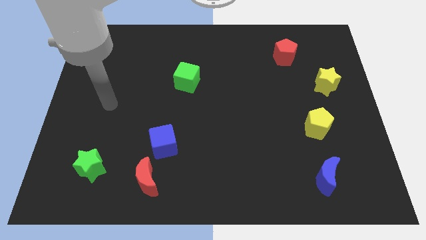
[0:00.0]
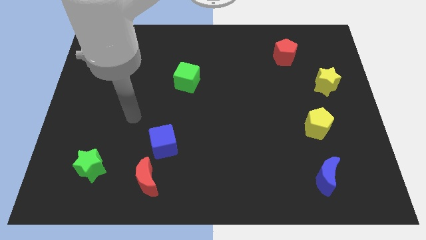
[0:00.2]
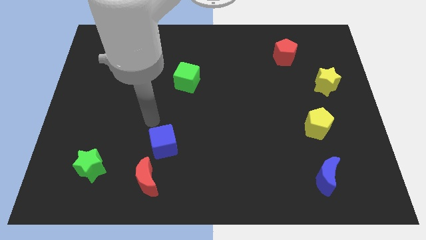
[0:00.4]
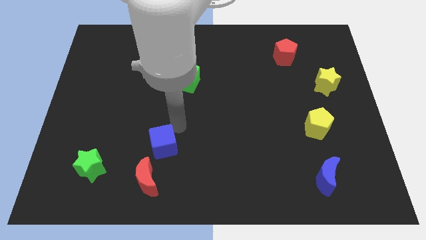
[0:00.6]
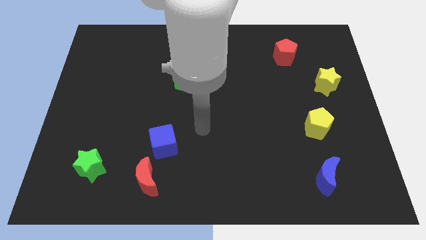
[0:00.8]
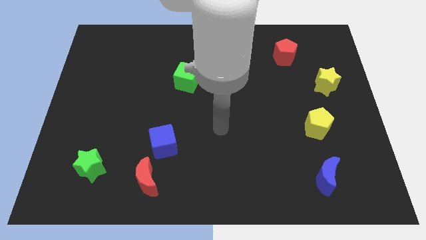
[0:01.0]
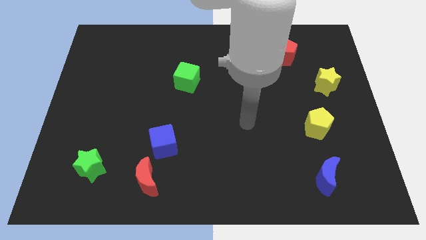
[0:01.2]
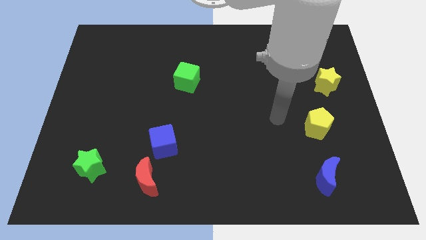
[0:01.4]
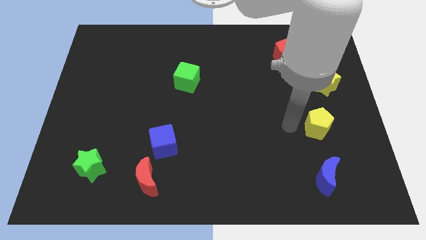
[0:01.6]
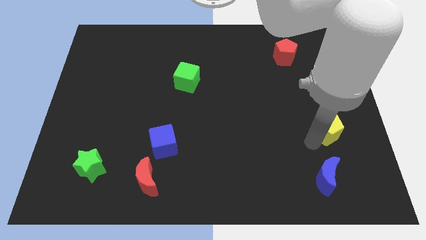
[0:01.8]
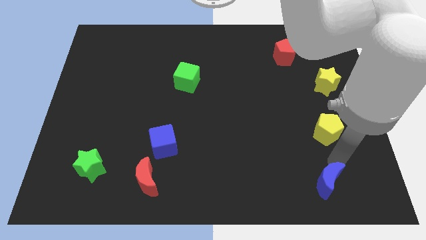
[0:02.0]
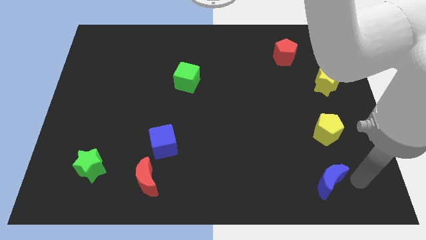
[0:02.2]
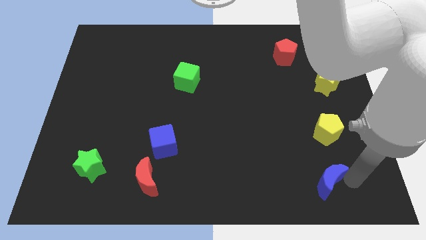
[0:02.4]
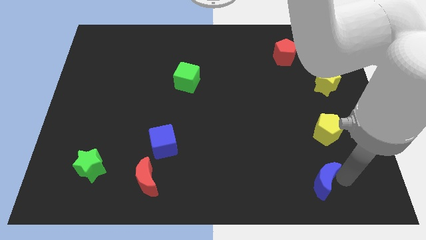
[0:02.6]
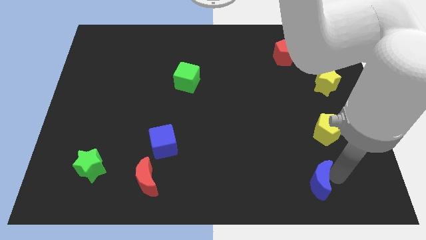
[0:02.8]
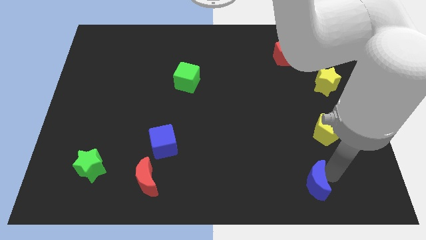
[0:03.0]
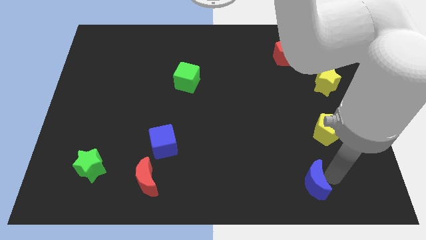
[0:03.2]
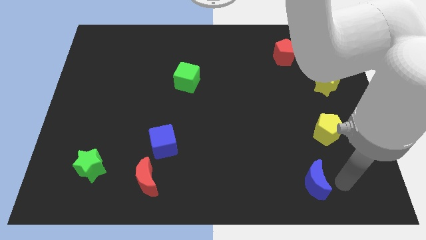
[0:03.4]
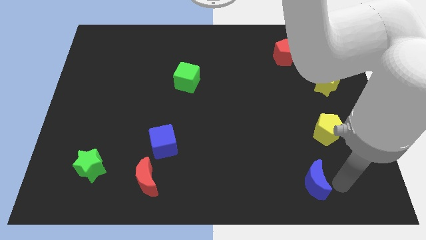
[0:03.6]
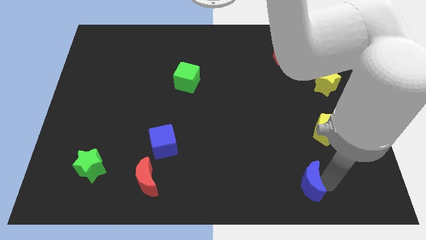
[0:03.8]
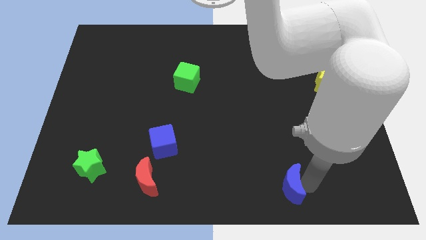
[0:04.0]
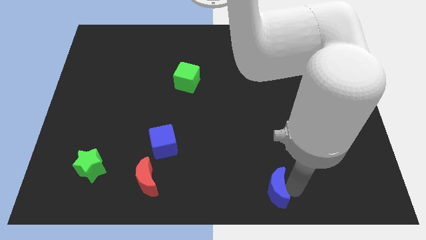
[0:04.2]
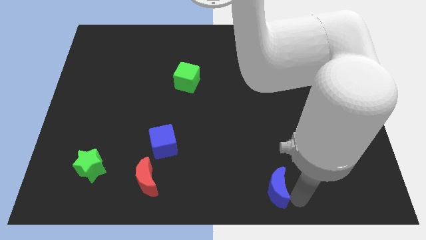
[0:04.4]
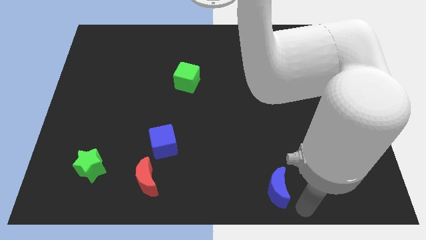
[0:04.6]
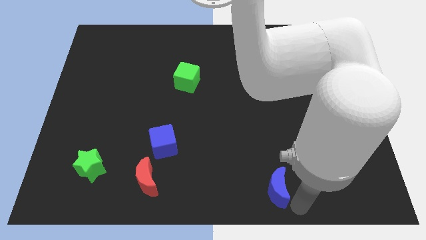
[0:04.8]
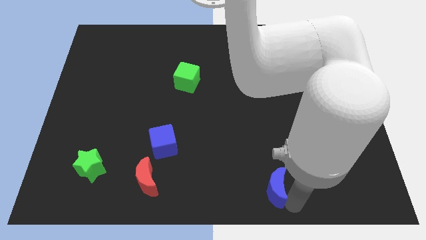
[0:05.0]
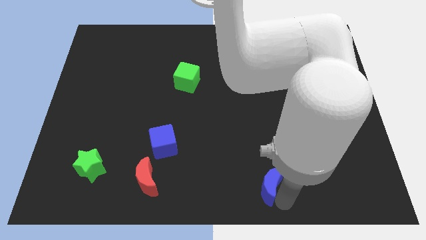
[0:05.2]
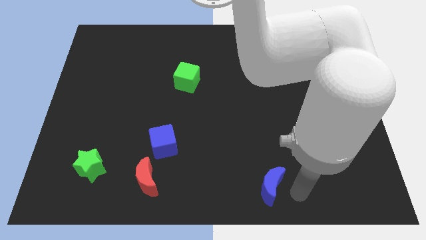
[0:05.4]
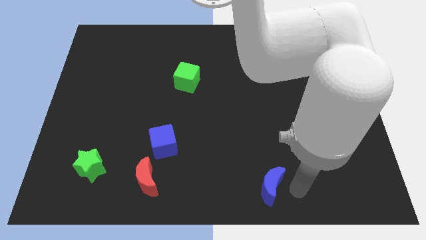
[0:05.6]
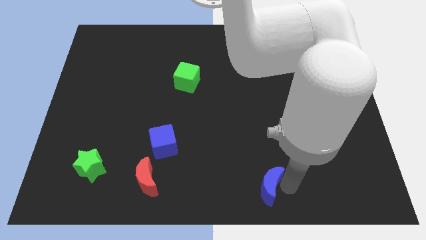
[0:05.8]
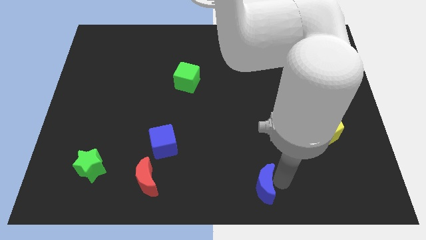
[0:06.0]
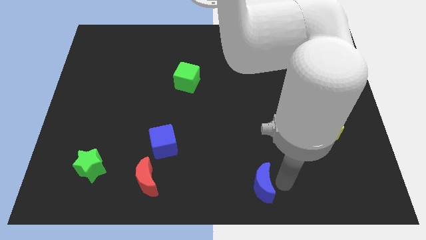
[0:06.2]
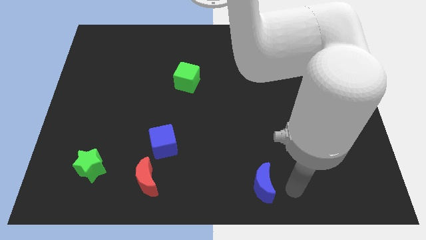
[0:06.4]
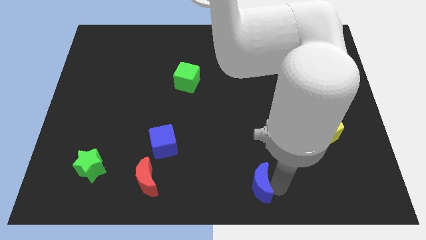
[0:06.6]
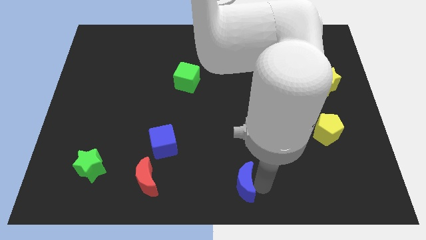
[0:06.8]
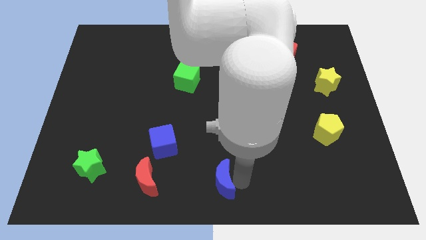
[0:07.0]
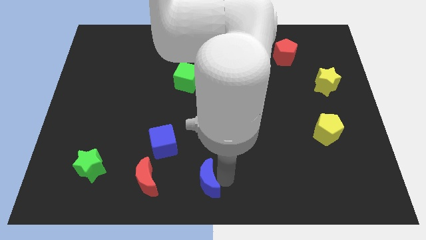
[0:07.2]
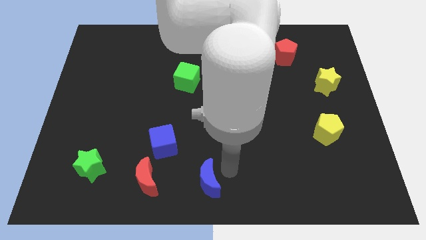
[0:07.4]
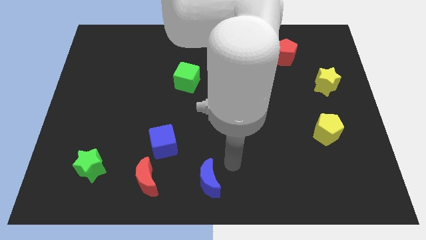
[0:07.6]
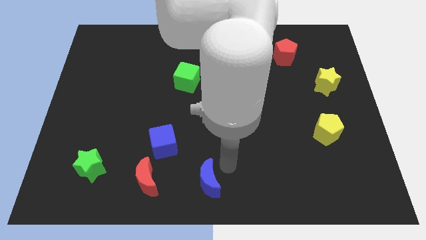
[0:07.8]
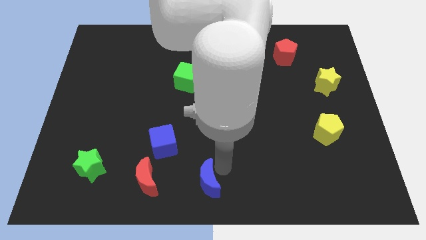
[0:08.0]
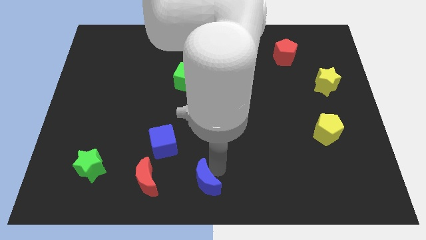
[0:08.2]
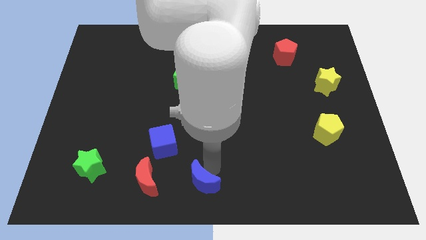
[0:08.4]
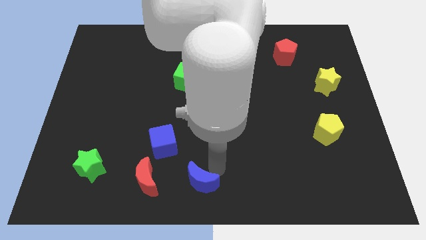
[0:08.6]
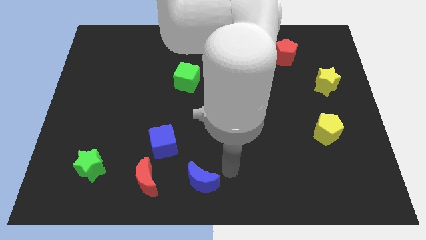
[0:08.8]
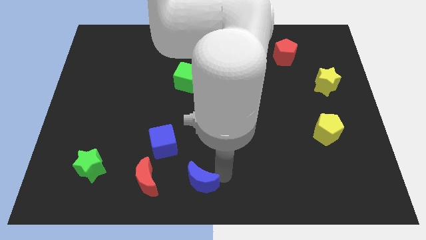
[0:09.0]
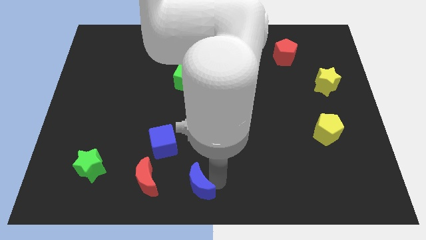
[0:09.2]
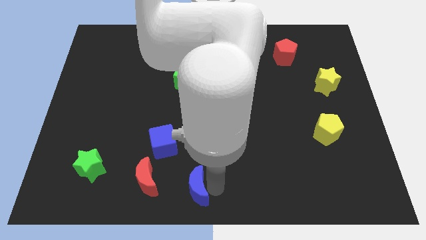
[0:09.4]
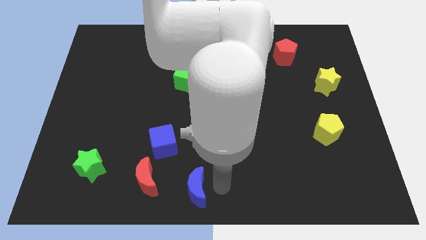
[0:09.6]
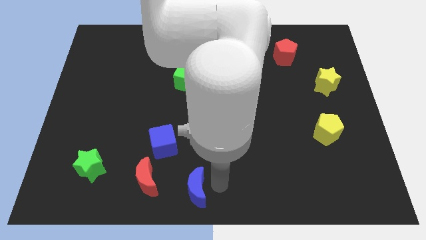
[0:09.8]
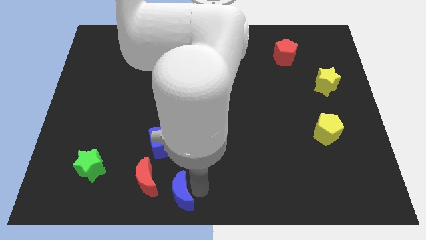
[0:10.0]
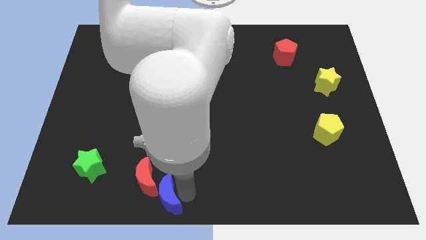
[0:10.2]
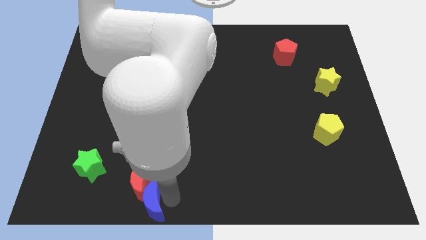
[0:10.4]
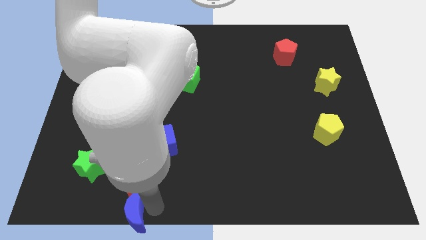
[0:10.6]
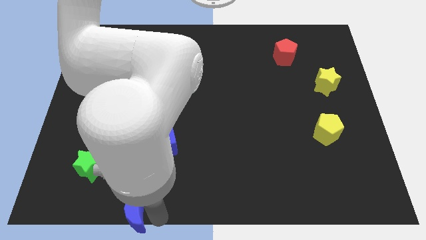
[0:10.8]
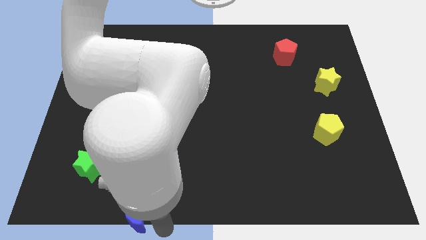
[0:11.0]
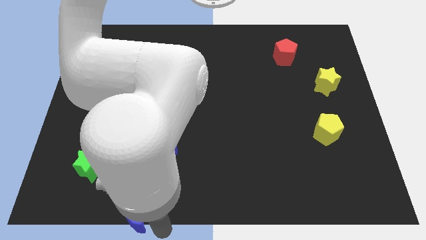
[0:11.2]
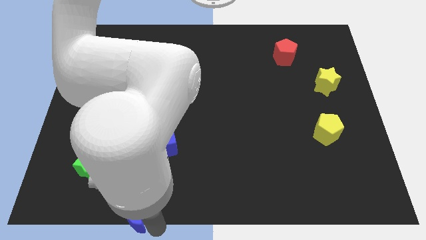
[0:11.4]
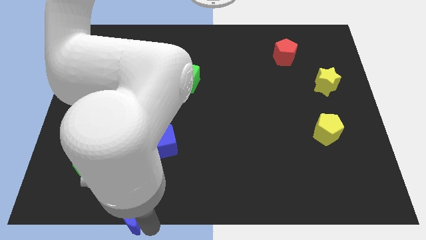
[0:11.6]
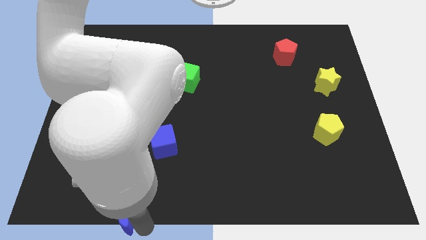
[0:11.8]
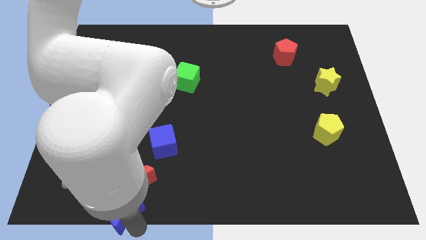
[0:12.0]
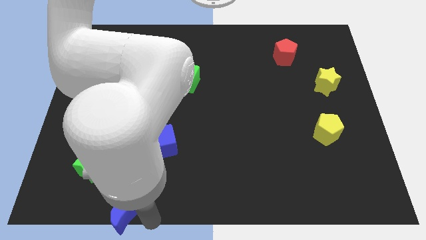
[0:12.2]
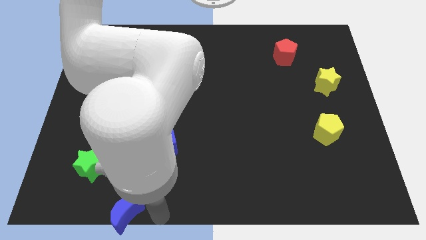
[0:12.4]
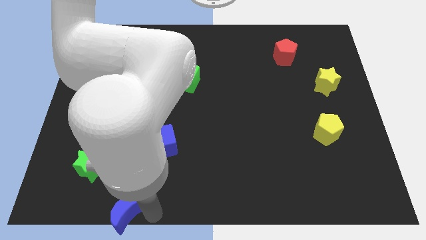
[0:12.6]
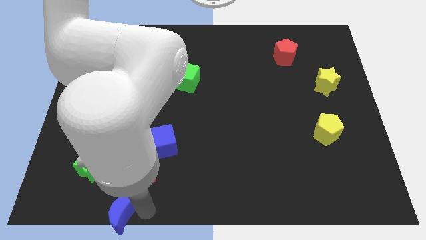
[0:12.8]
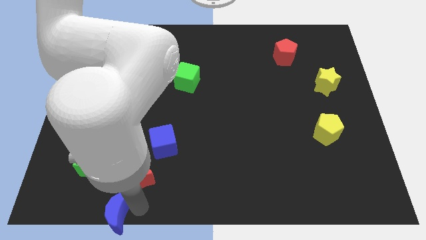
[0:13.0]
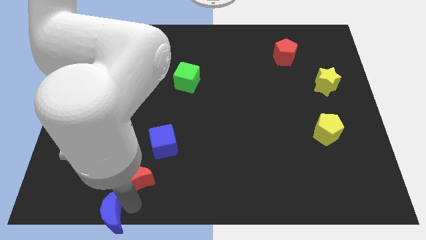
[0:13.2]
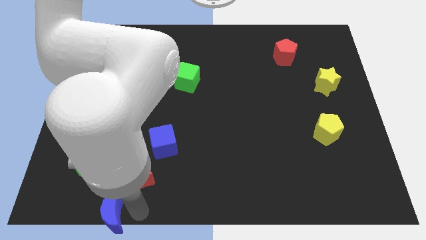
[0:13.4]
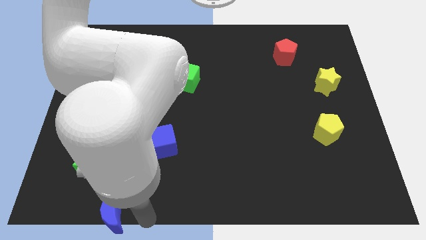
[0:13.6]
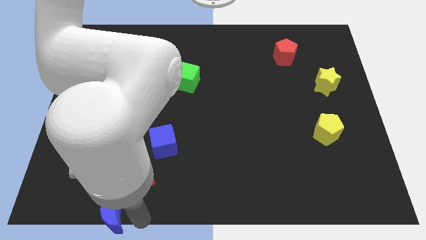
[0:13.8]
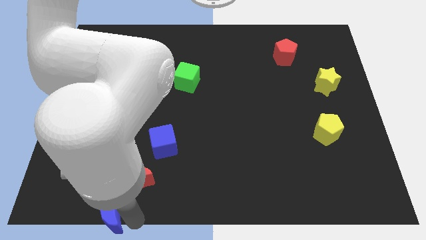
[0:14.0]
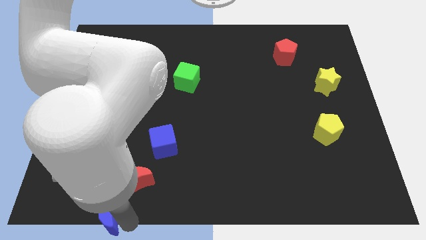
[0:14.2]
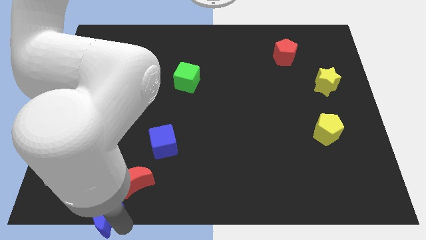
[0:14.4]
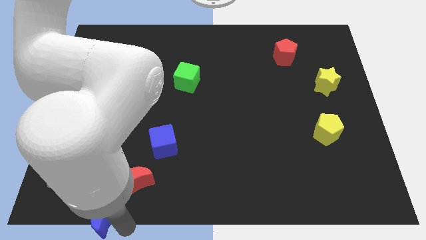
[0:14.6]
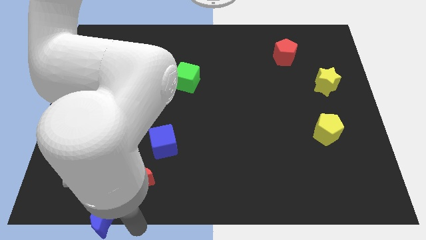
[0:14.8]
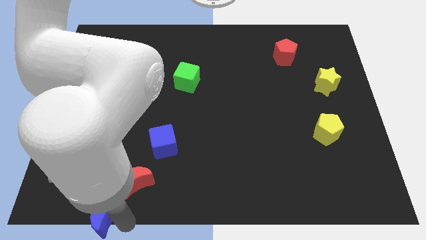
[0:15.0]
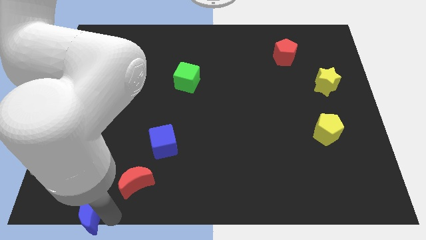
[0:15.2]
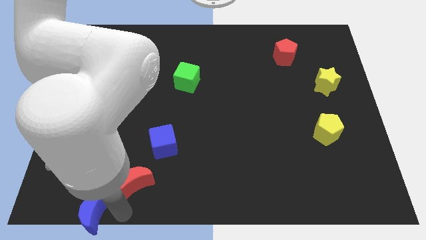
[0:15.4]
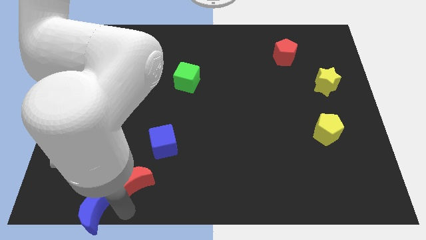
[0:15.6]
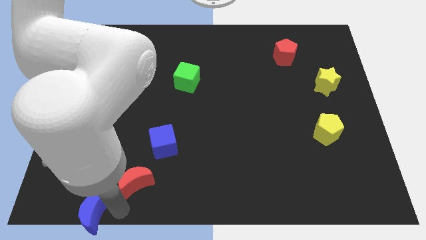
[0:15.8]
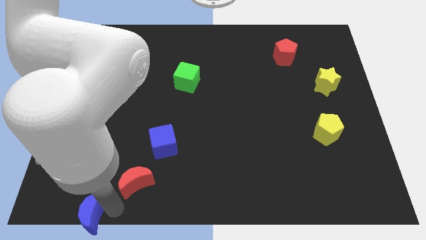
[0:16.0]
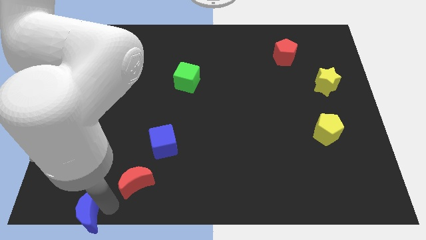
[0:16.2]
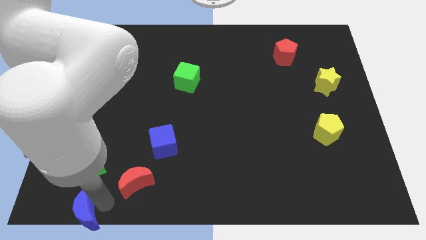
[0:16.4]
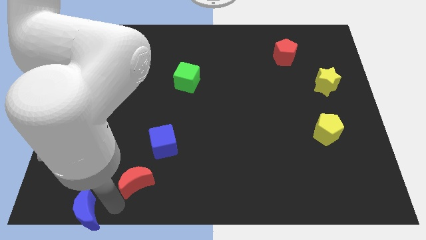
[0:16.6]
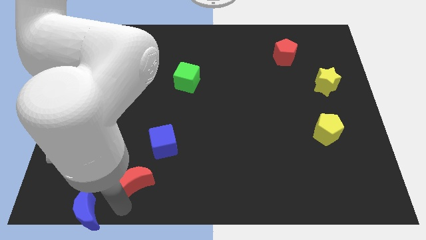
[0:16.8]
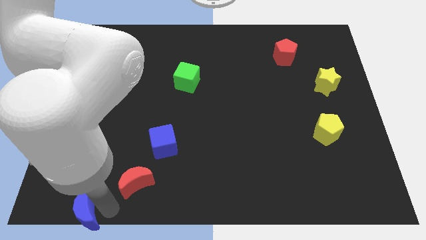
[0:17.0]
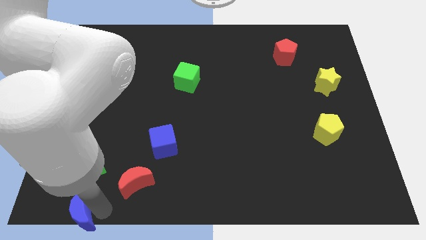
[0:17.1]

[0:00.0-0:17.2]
move the blue moon to the lower left corner

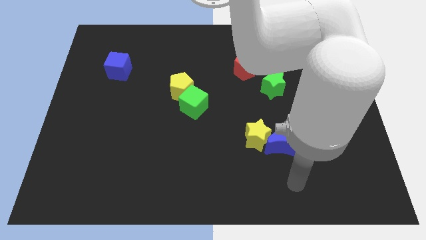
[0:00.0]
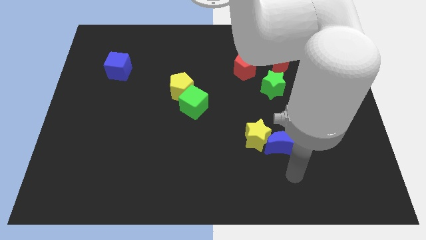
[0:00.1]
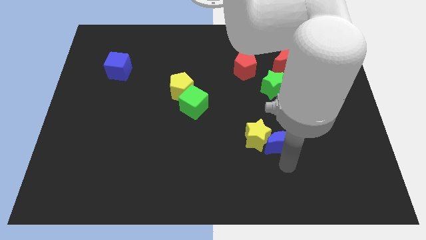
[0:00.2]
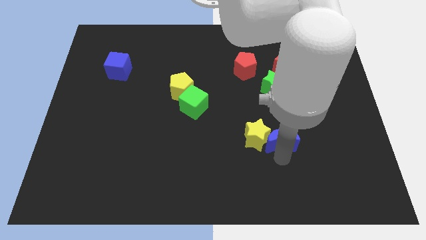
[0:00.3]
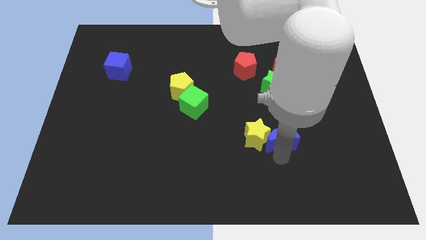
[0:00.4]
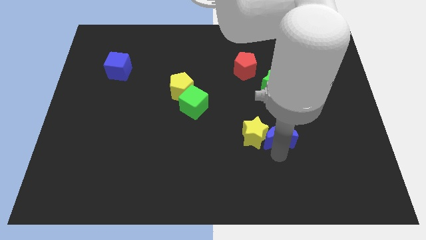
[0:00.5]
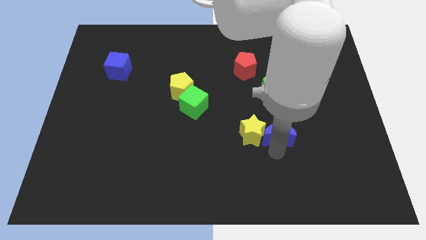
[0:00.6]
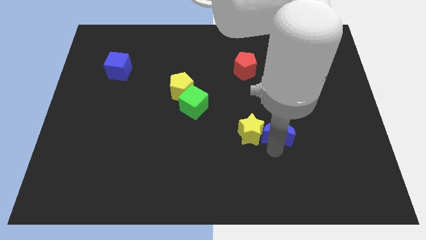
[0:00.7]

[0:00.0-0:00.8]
move the yellow star to the center
